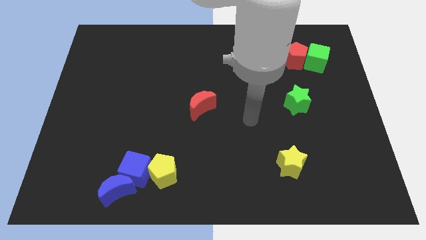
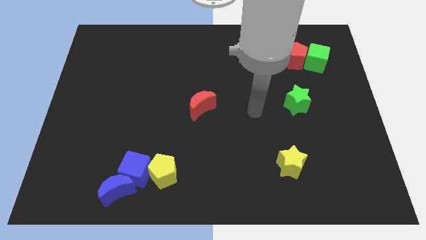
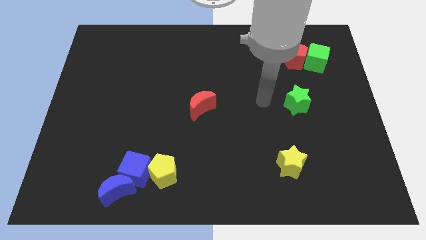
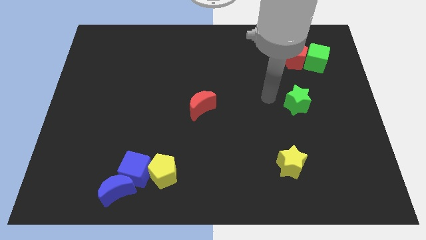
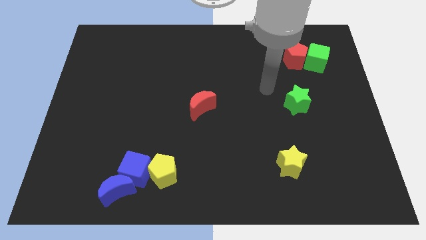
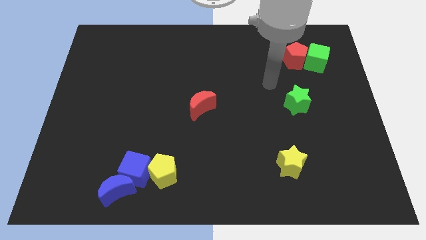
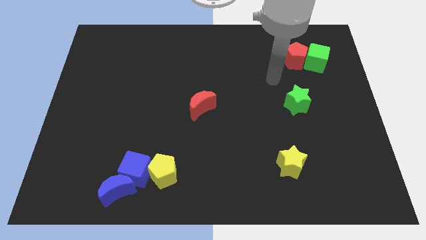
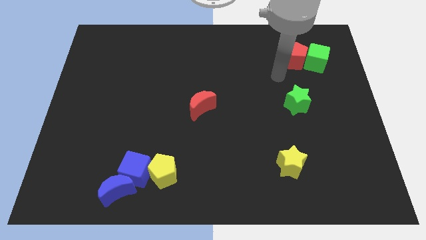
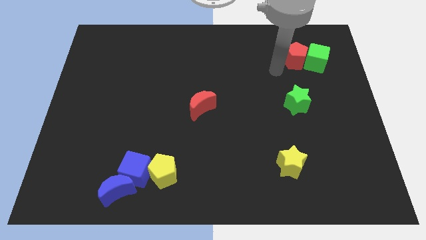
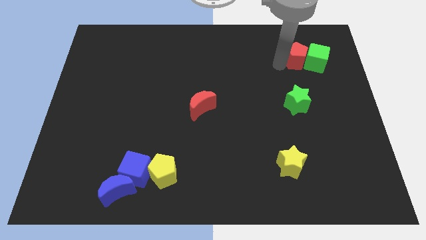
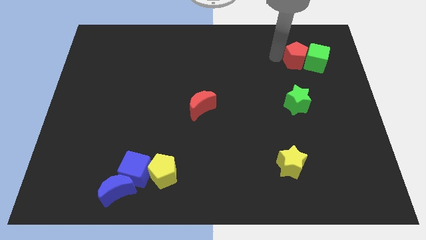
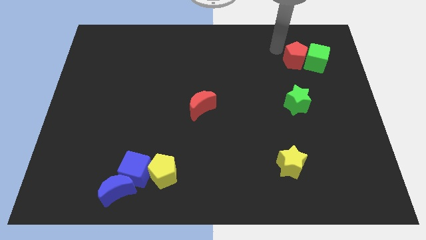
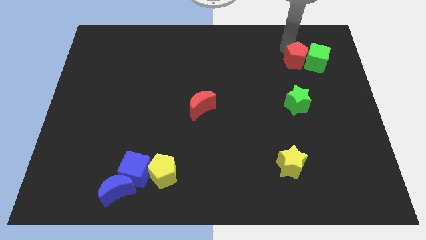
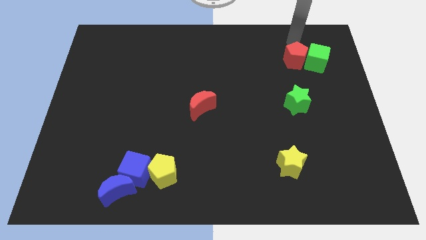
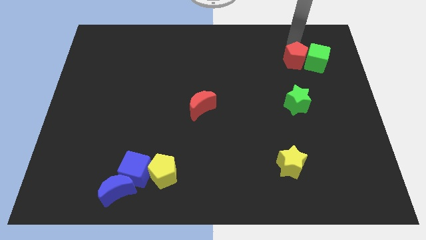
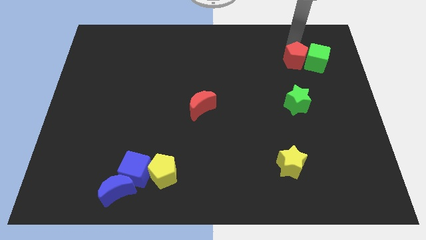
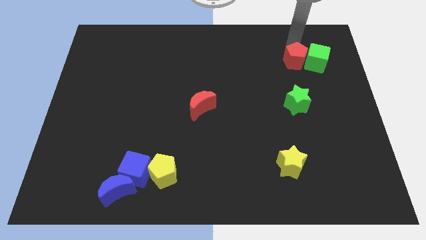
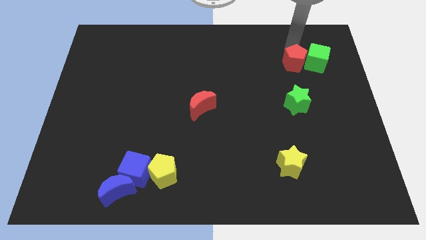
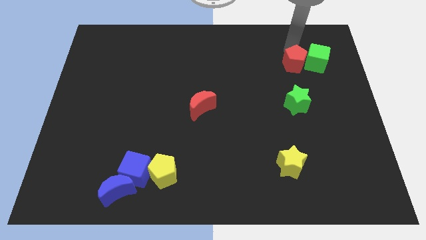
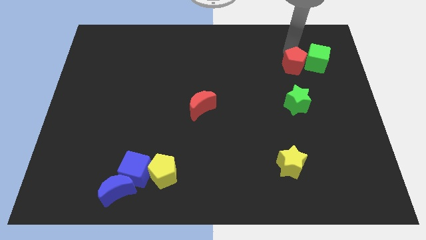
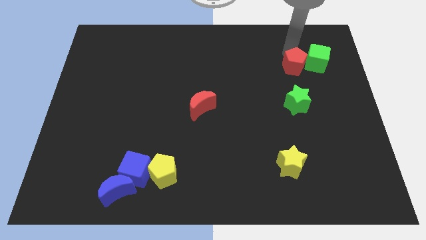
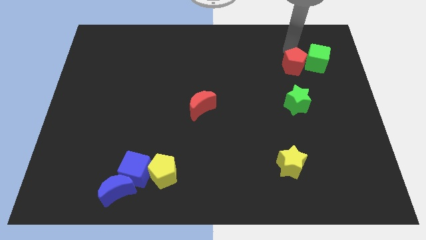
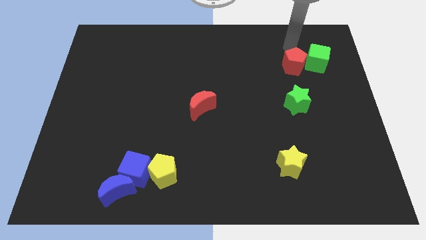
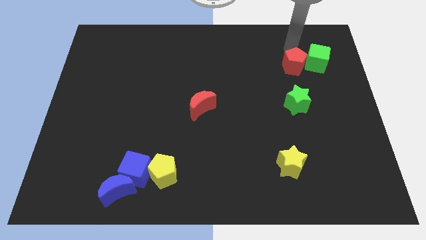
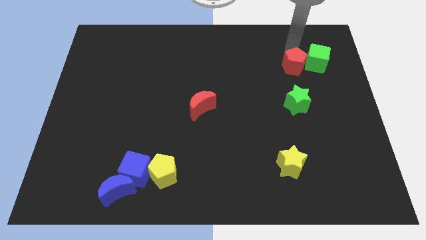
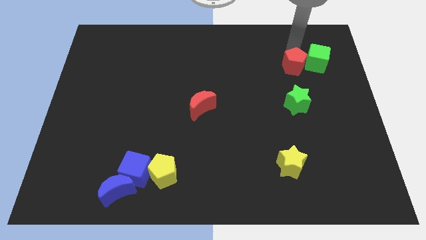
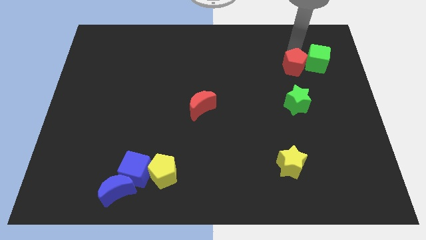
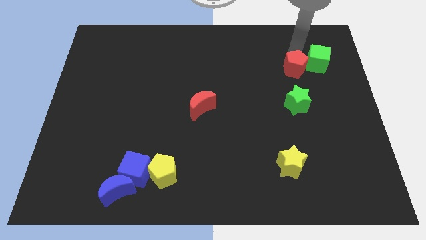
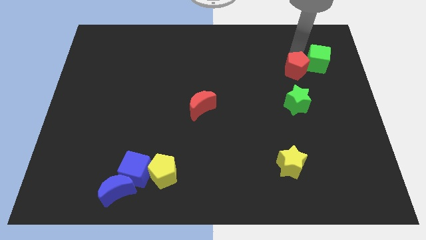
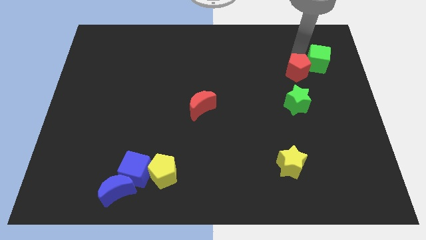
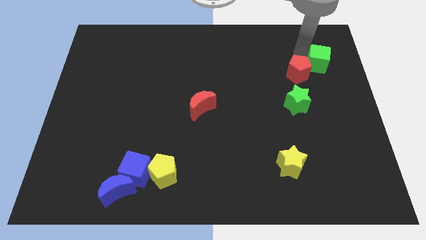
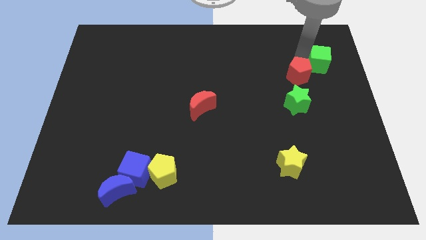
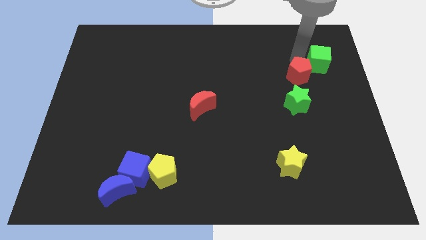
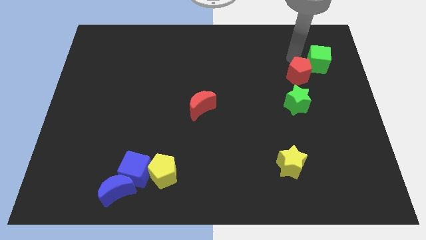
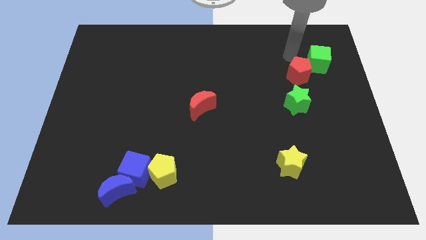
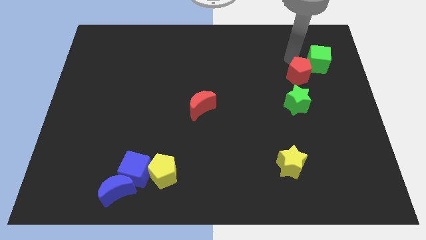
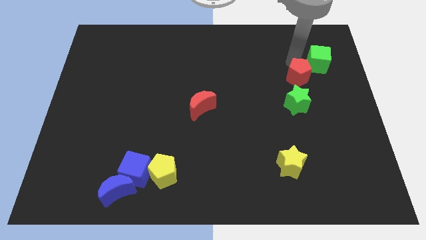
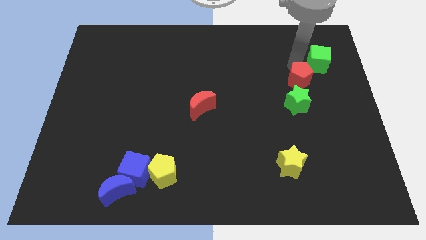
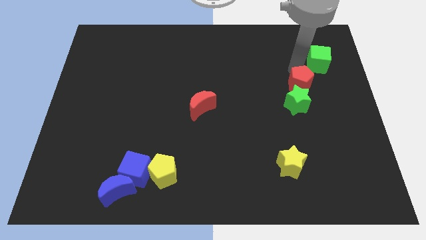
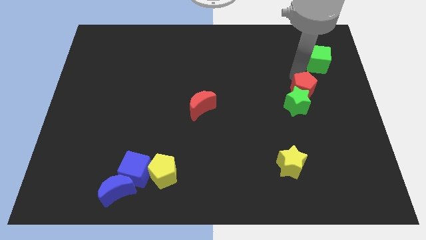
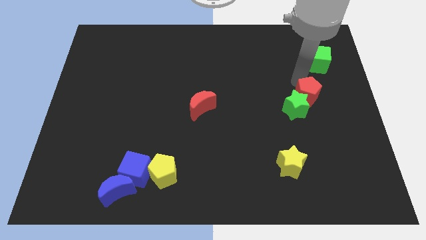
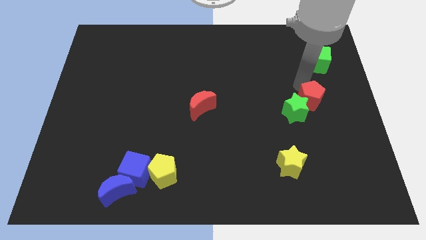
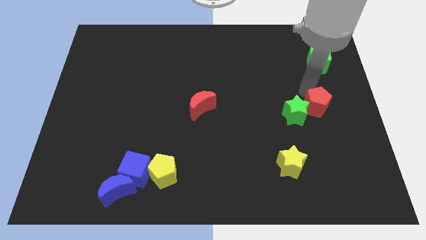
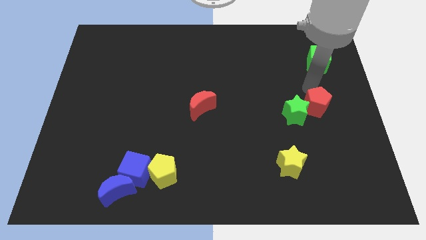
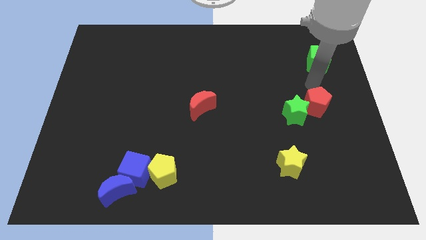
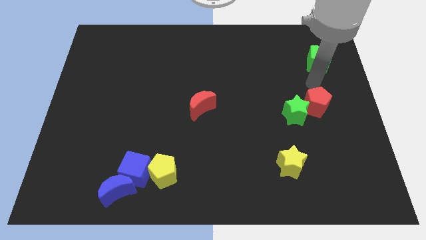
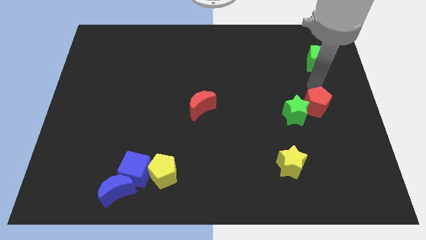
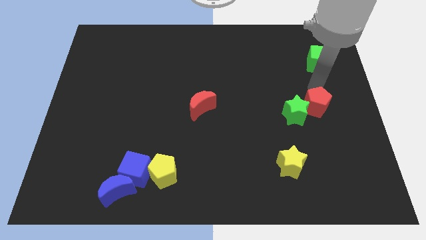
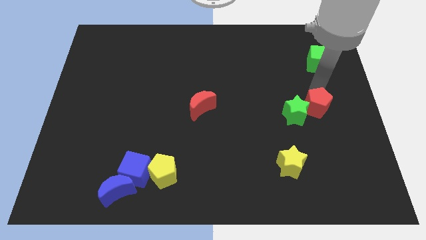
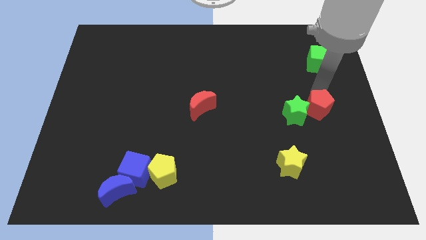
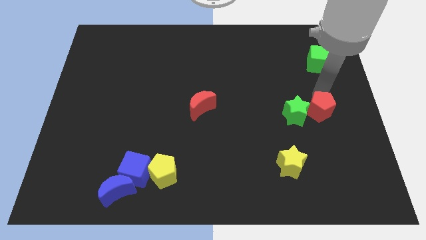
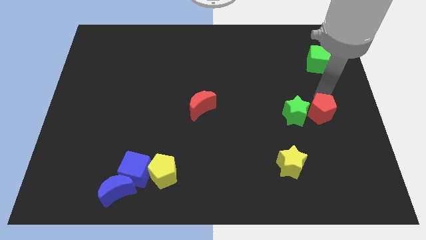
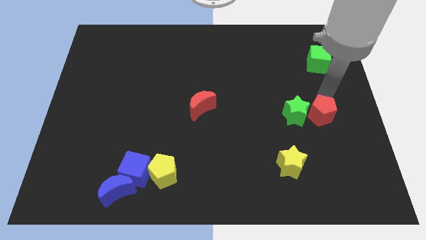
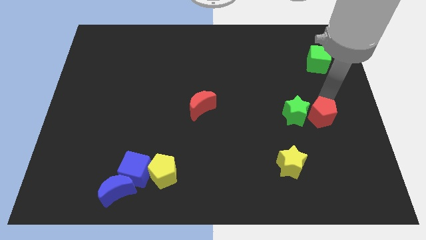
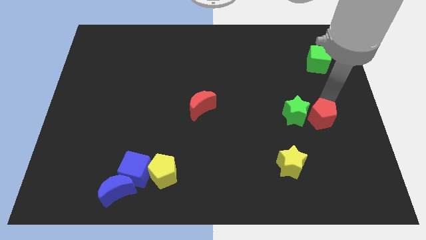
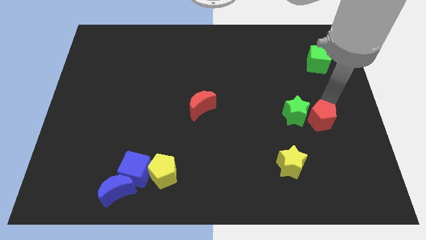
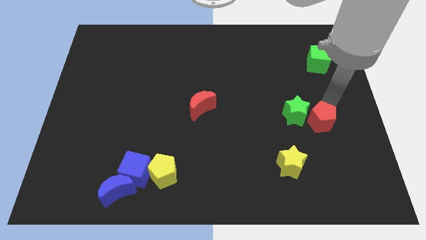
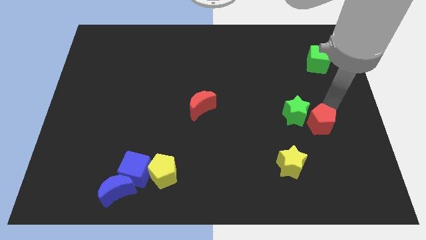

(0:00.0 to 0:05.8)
move the red pentagon down

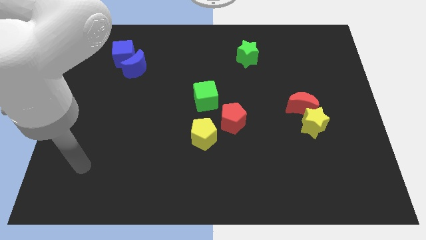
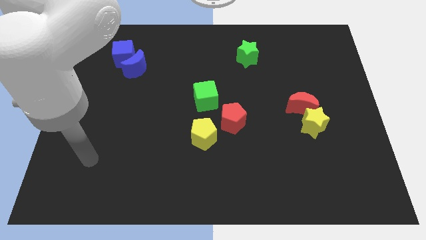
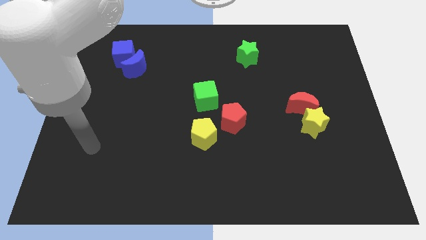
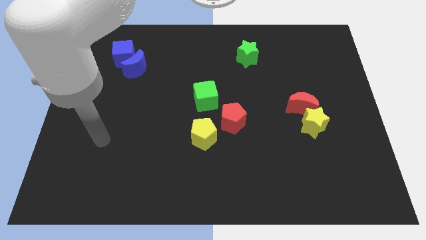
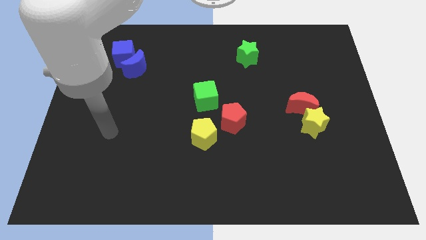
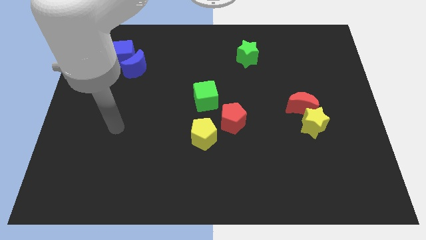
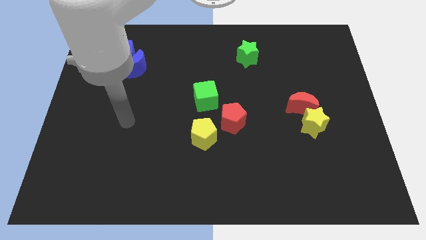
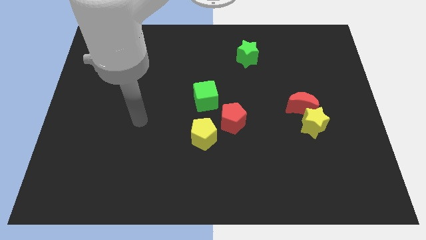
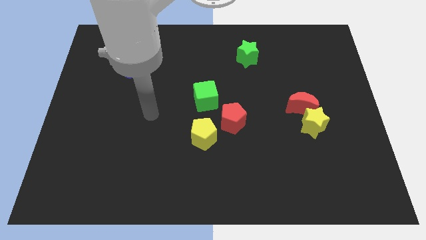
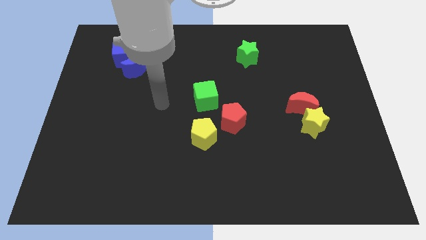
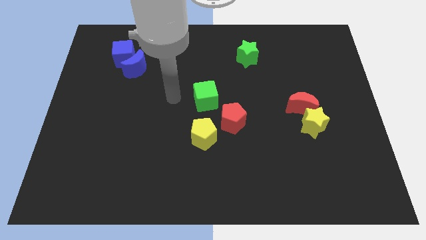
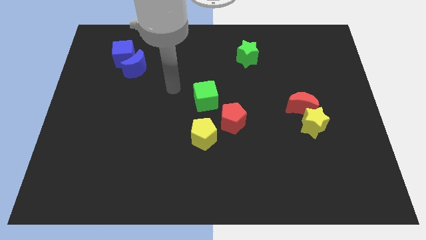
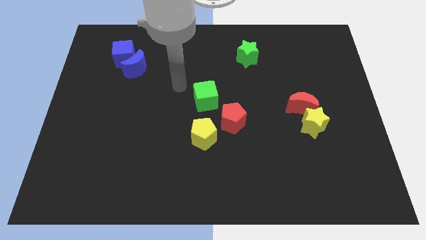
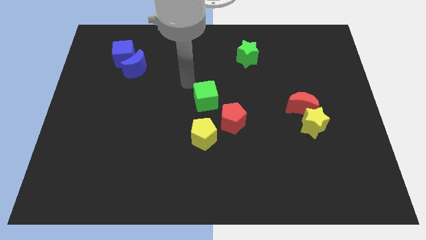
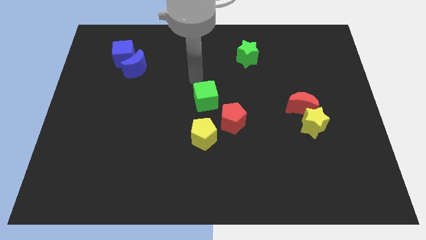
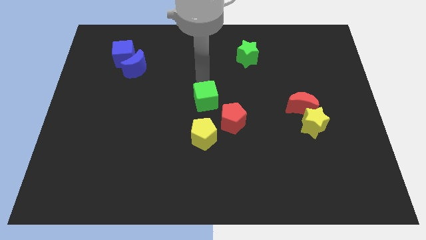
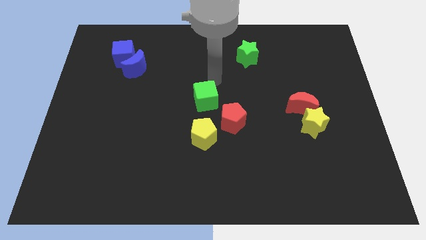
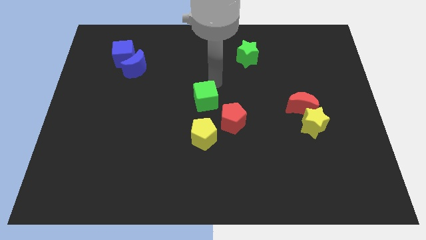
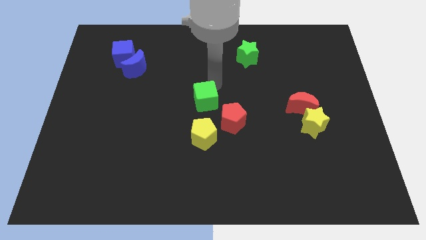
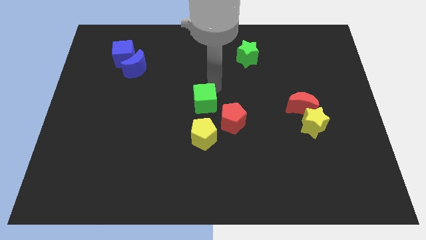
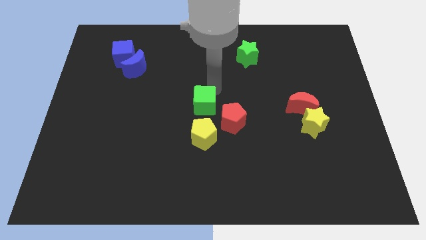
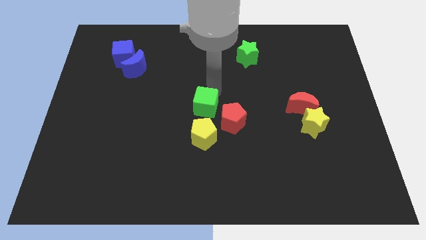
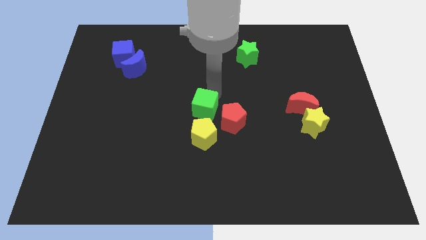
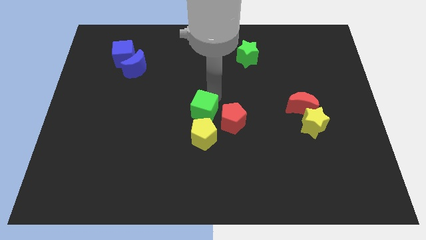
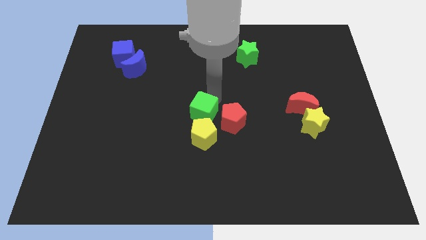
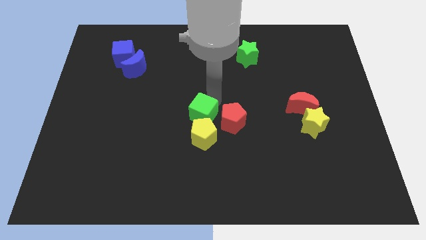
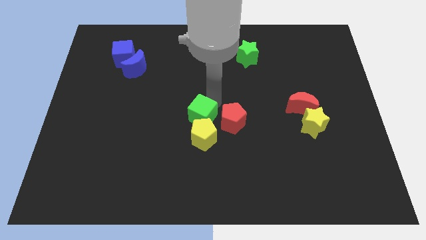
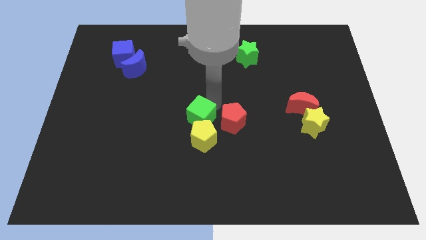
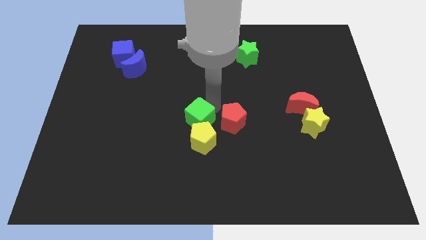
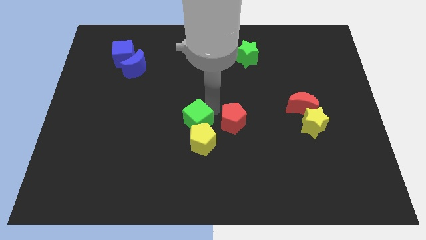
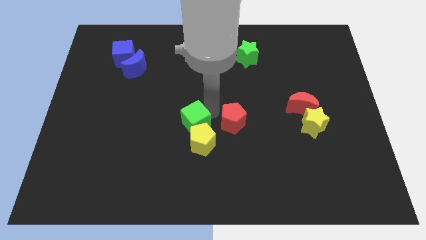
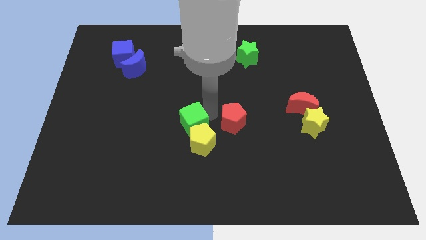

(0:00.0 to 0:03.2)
push the green cube a little downwards
